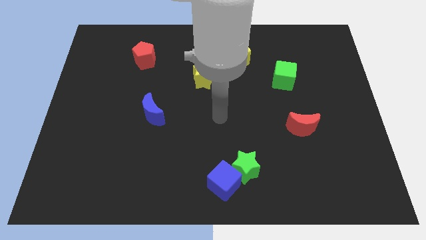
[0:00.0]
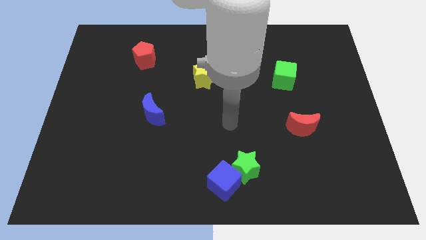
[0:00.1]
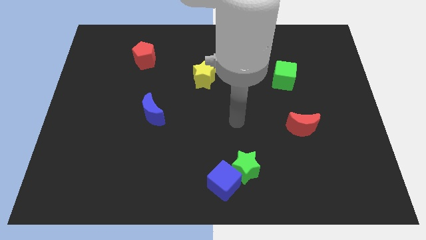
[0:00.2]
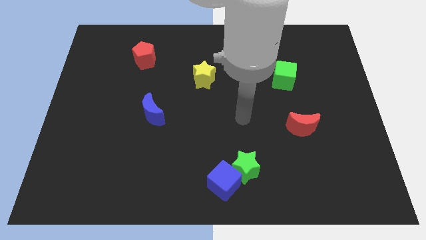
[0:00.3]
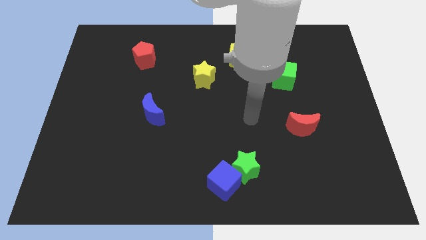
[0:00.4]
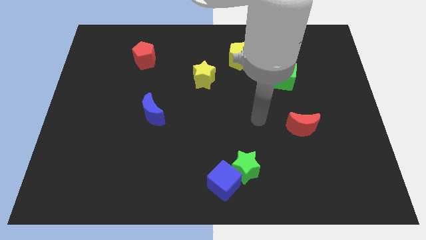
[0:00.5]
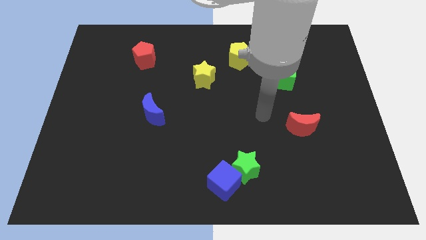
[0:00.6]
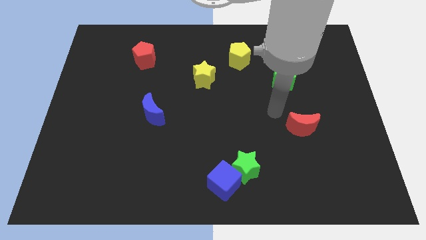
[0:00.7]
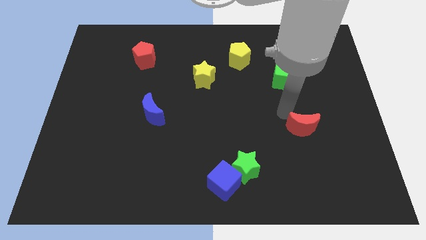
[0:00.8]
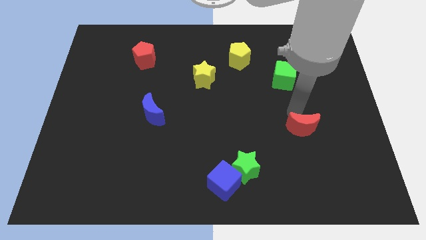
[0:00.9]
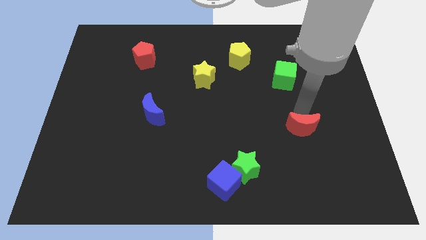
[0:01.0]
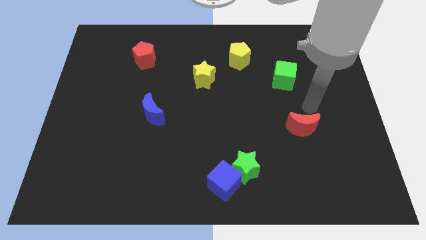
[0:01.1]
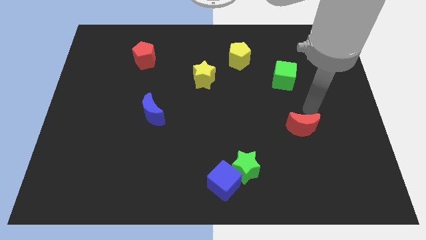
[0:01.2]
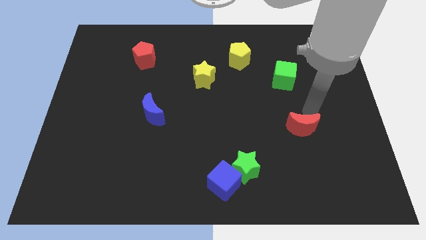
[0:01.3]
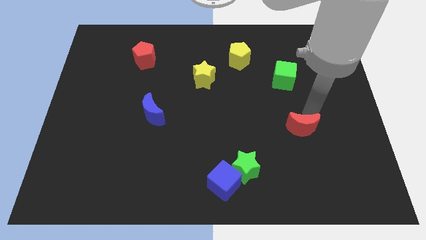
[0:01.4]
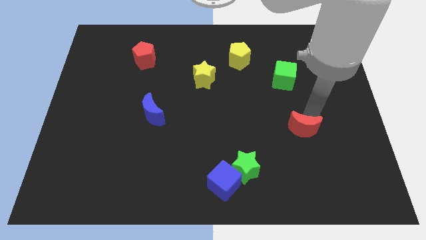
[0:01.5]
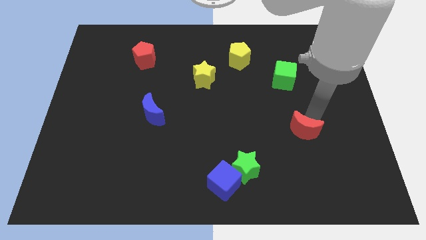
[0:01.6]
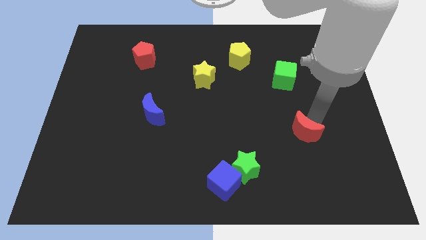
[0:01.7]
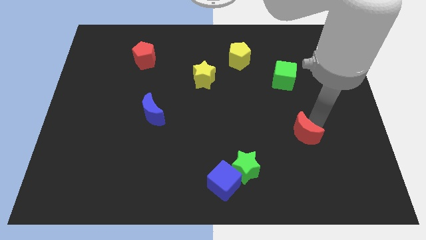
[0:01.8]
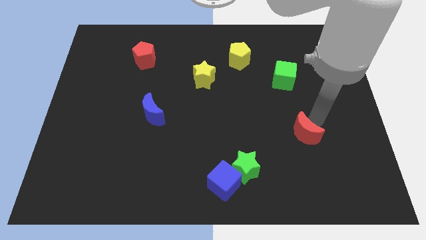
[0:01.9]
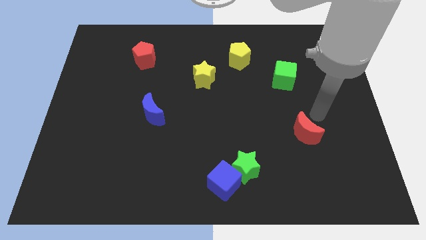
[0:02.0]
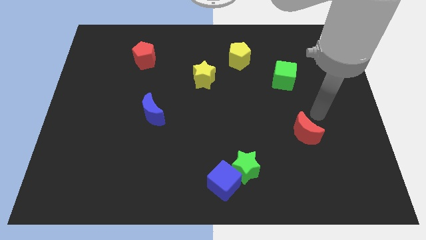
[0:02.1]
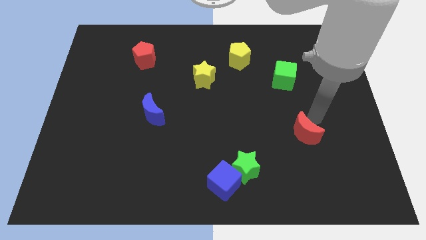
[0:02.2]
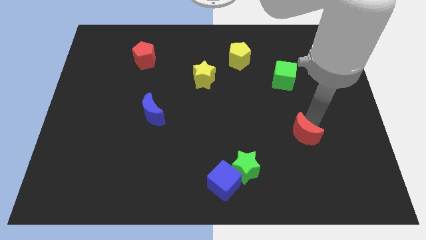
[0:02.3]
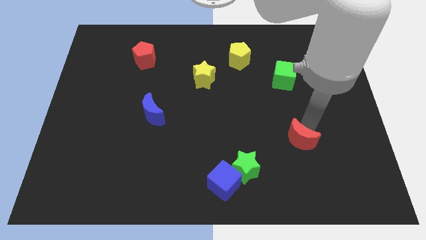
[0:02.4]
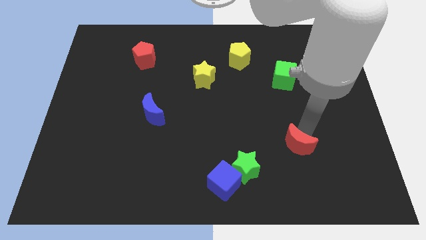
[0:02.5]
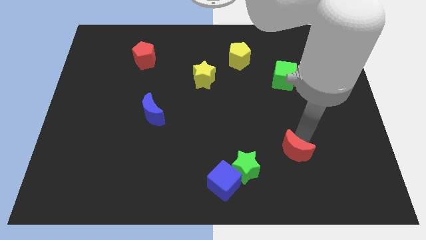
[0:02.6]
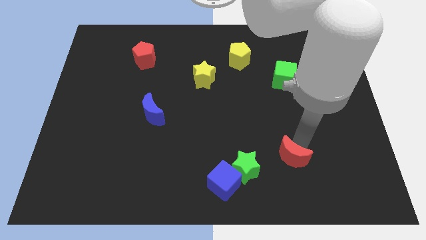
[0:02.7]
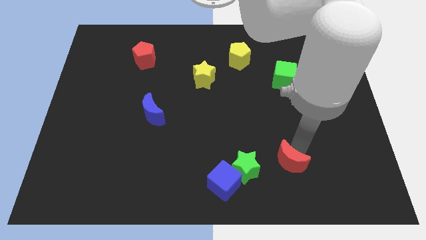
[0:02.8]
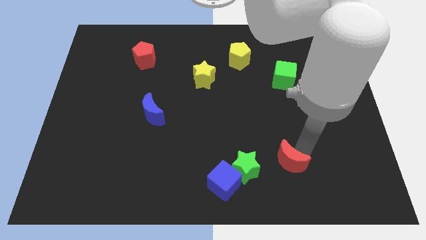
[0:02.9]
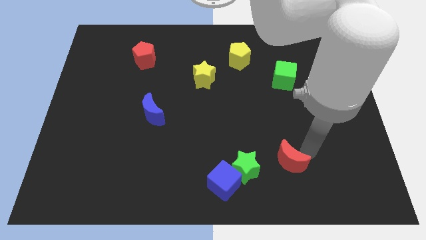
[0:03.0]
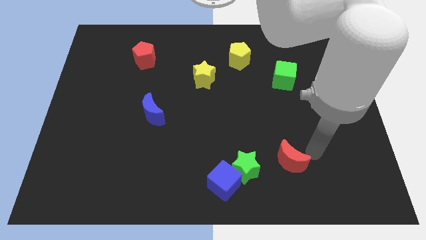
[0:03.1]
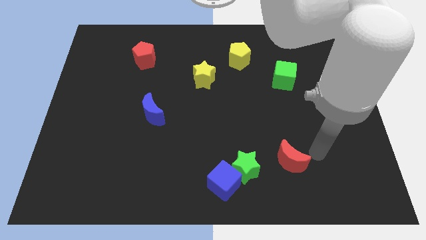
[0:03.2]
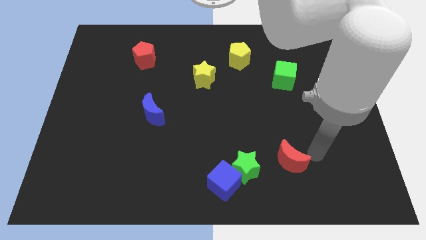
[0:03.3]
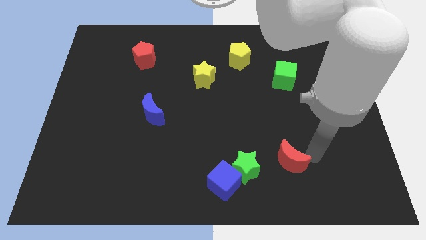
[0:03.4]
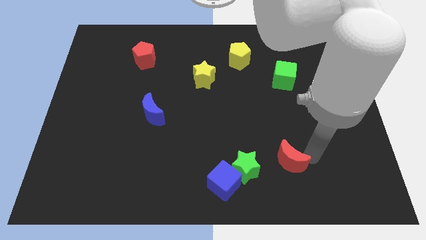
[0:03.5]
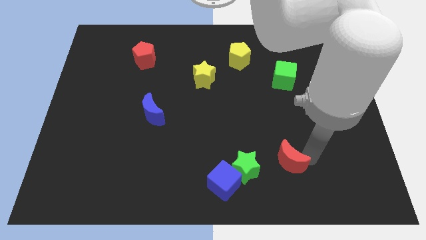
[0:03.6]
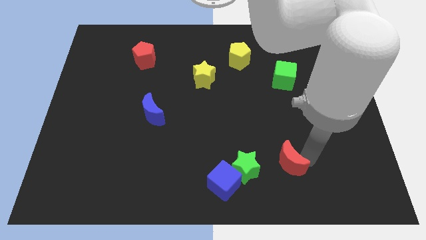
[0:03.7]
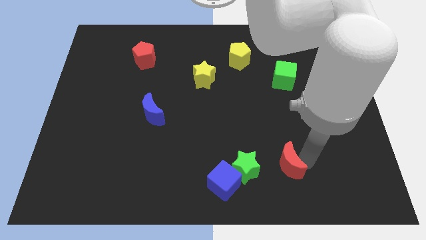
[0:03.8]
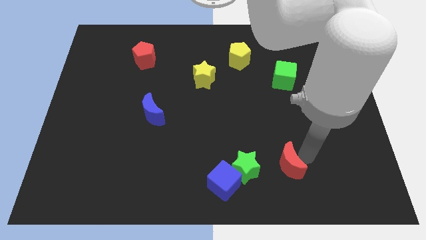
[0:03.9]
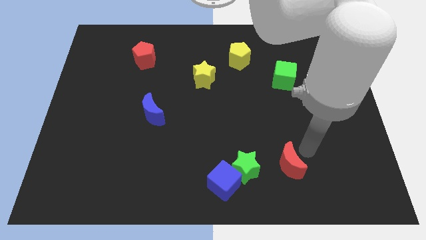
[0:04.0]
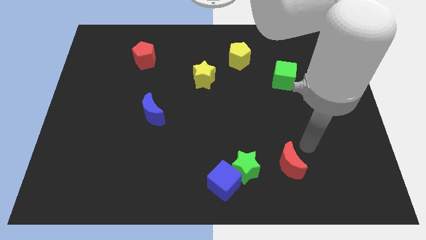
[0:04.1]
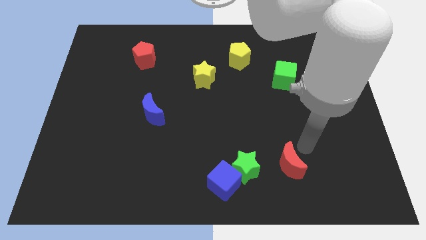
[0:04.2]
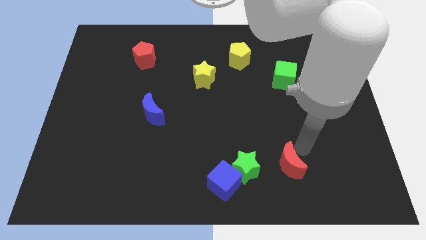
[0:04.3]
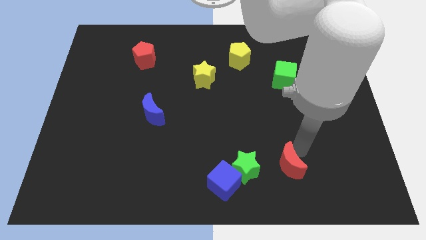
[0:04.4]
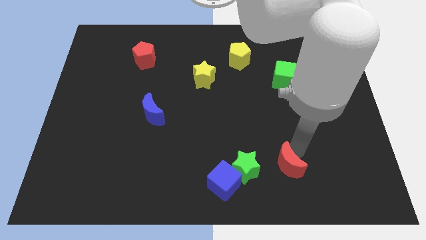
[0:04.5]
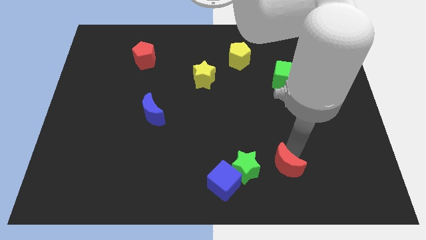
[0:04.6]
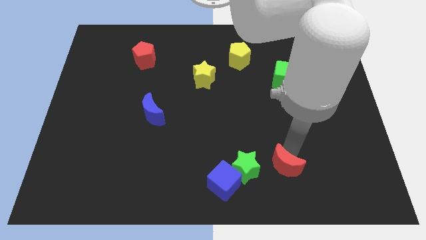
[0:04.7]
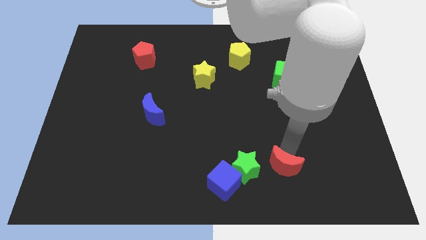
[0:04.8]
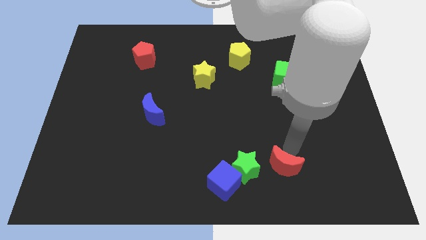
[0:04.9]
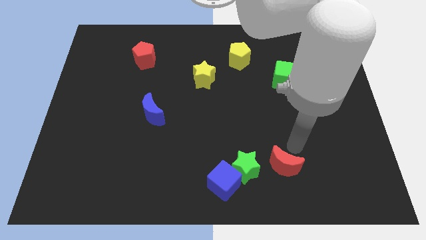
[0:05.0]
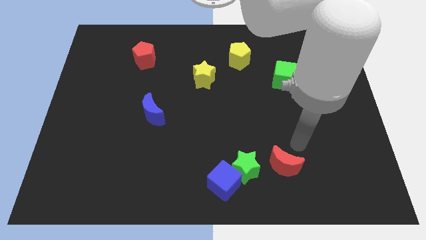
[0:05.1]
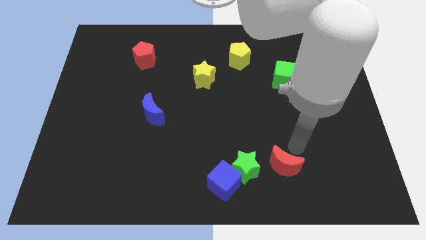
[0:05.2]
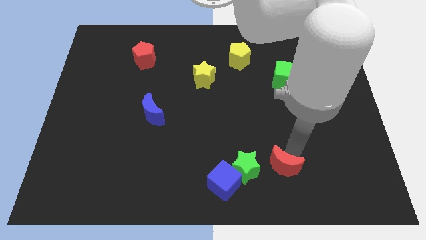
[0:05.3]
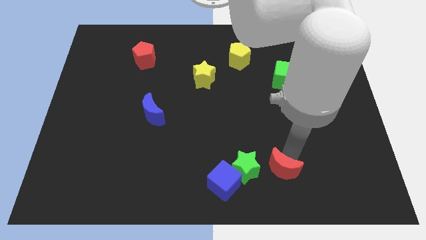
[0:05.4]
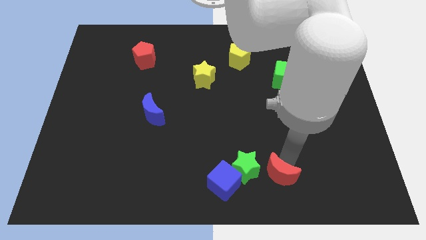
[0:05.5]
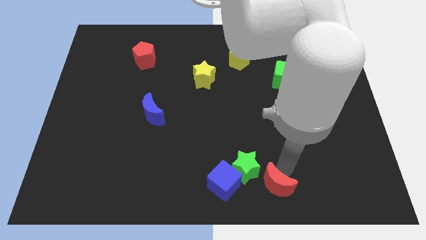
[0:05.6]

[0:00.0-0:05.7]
move the red moon to the bottom

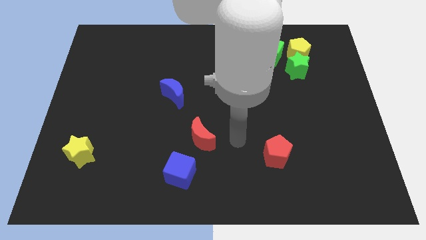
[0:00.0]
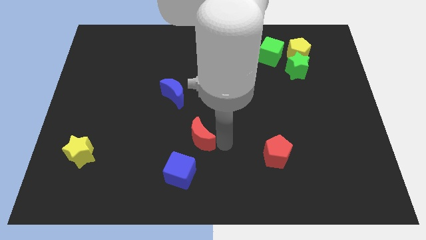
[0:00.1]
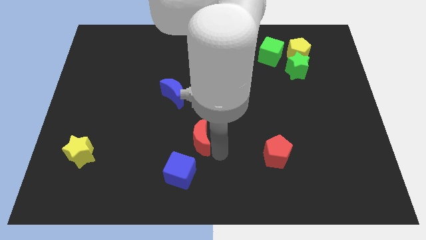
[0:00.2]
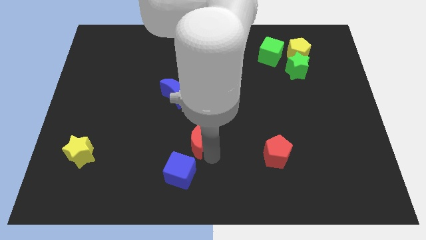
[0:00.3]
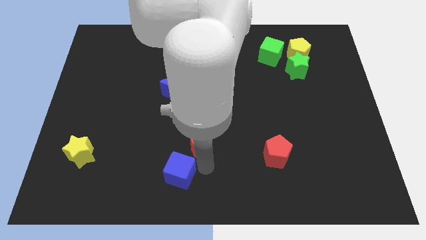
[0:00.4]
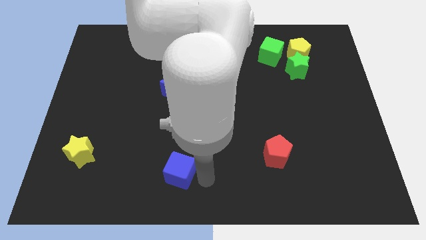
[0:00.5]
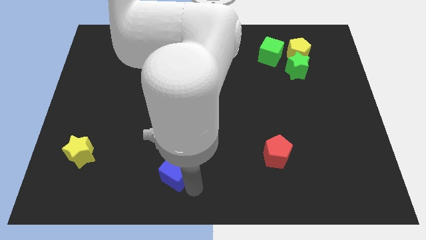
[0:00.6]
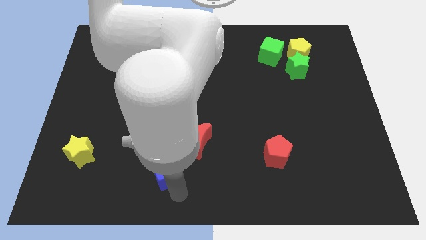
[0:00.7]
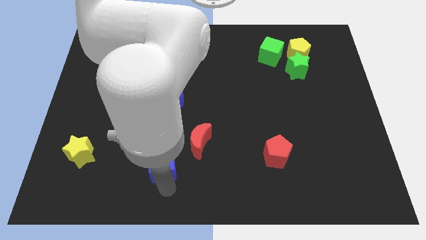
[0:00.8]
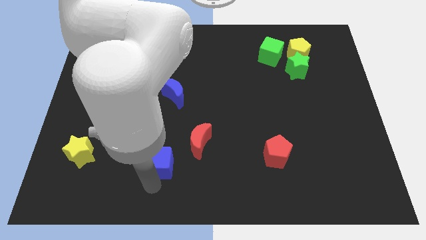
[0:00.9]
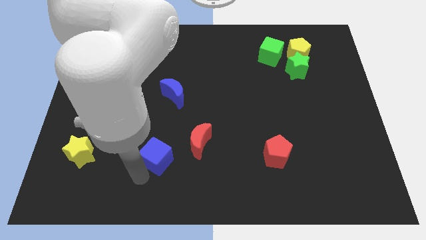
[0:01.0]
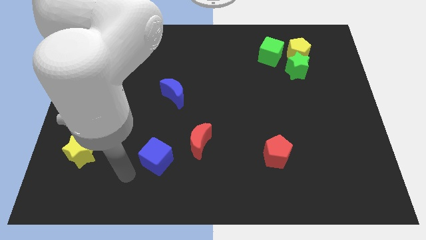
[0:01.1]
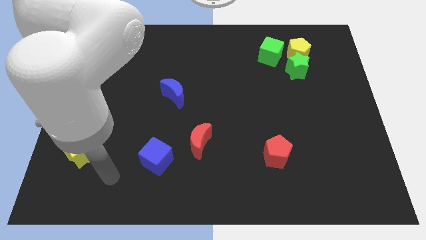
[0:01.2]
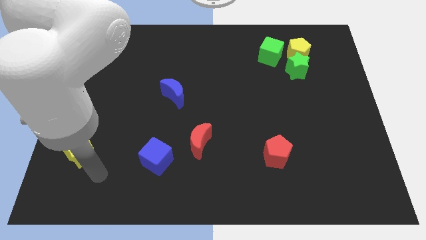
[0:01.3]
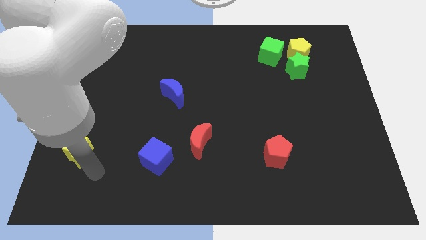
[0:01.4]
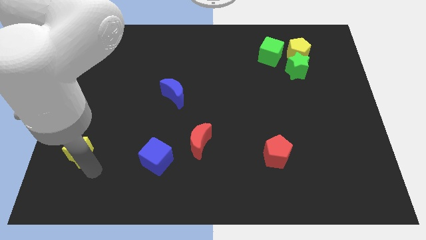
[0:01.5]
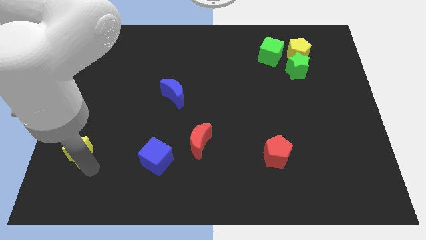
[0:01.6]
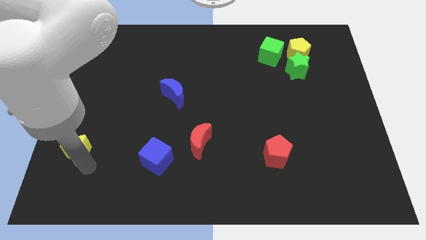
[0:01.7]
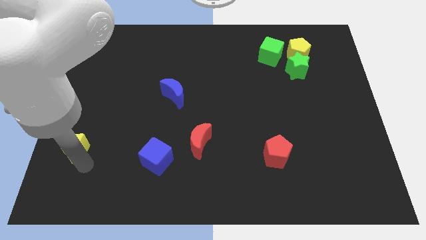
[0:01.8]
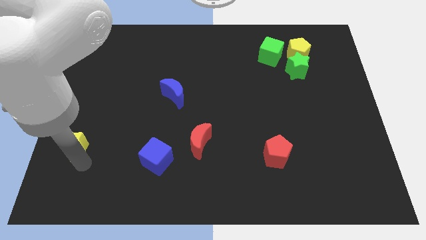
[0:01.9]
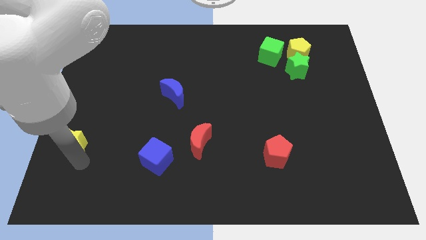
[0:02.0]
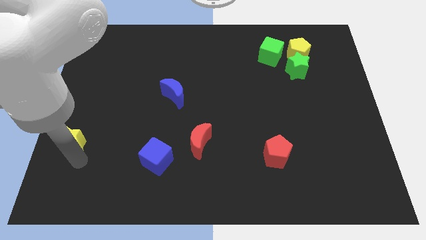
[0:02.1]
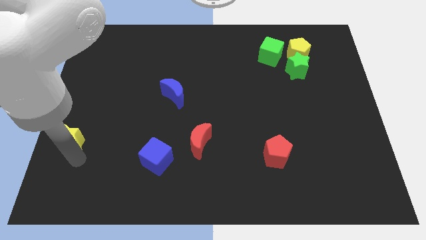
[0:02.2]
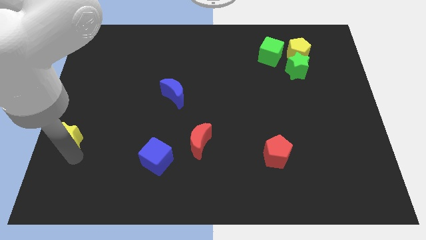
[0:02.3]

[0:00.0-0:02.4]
put the yellow star to the left side of the board

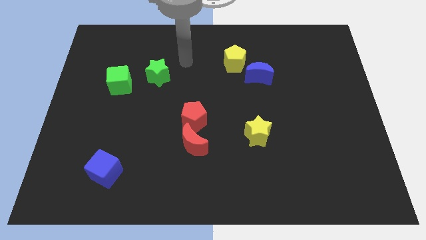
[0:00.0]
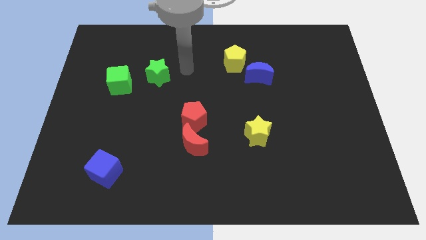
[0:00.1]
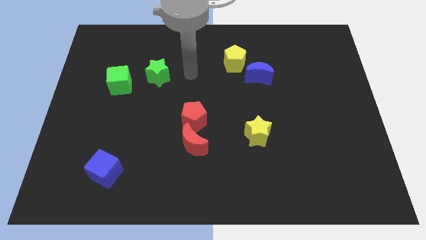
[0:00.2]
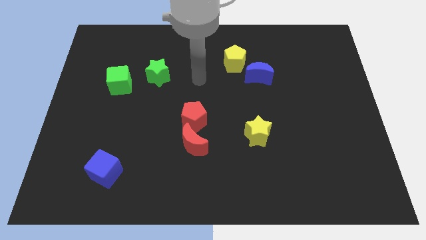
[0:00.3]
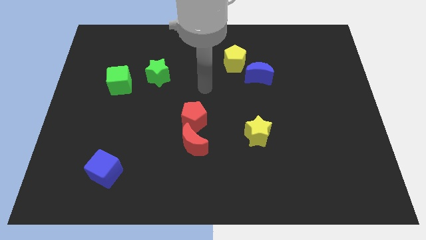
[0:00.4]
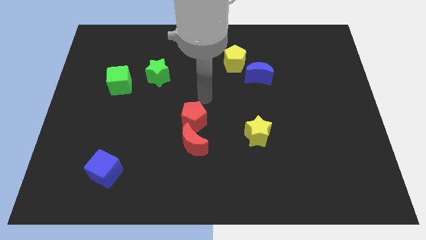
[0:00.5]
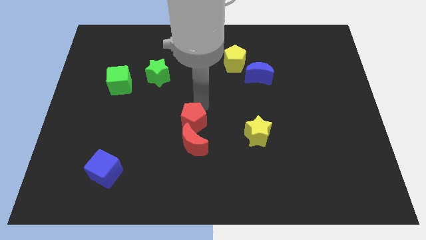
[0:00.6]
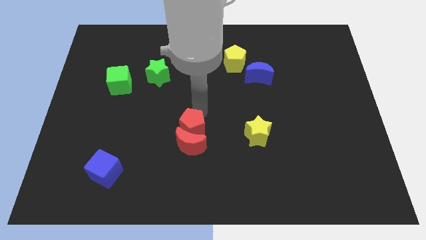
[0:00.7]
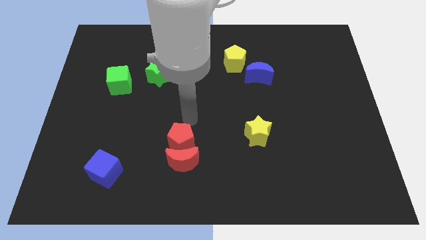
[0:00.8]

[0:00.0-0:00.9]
put the red moon to the bottom
